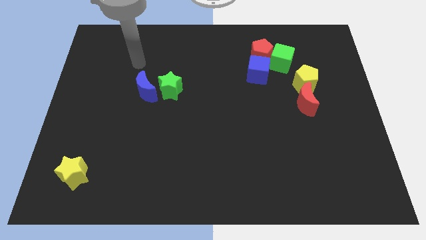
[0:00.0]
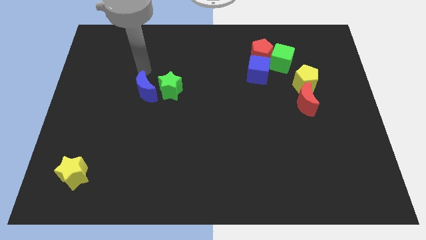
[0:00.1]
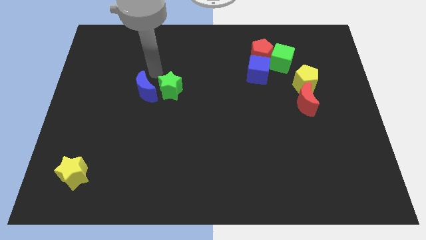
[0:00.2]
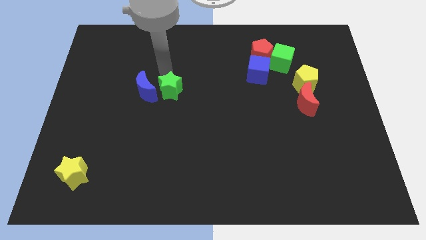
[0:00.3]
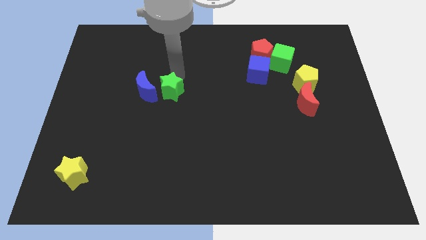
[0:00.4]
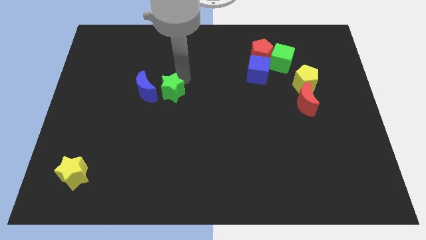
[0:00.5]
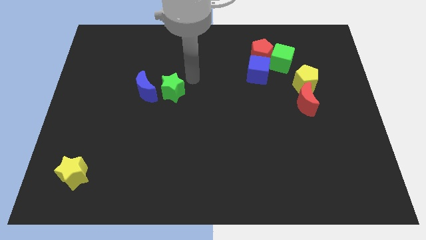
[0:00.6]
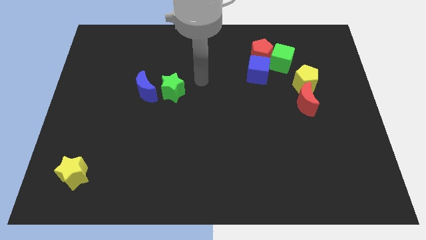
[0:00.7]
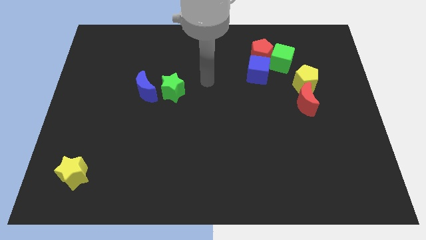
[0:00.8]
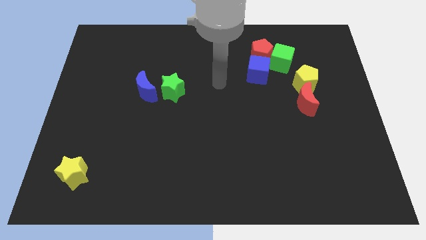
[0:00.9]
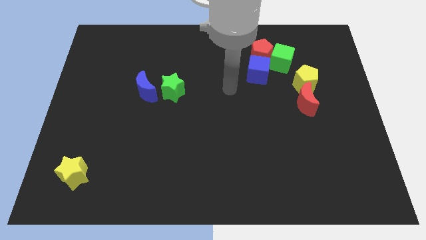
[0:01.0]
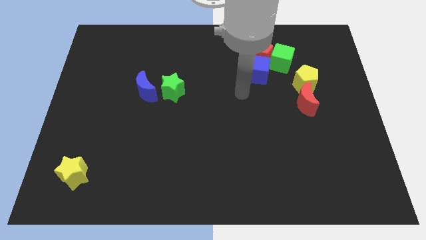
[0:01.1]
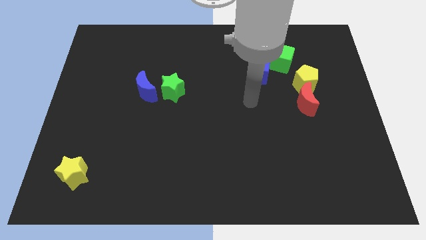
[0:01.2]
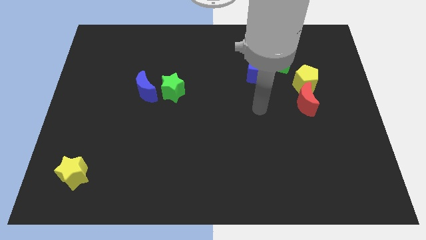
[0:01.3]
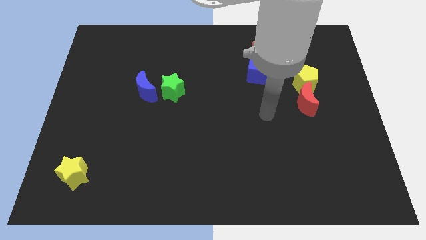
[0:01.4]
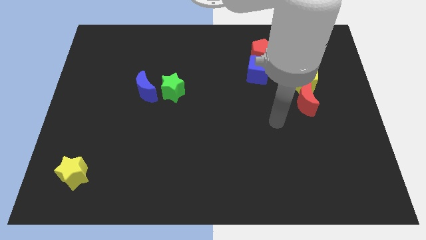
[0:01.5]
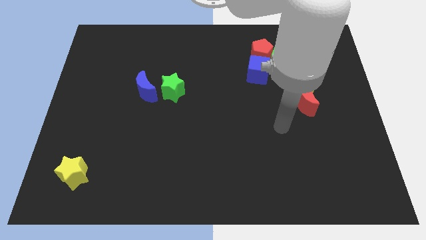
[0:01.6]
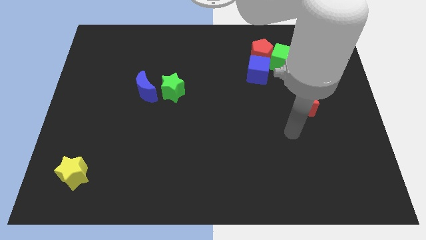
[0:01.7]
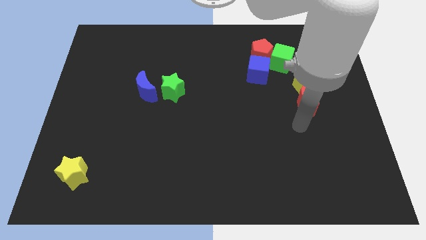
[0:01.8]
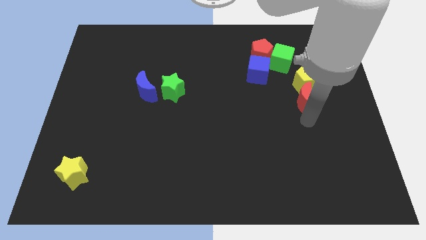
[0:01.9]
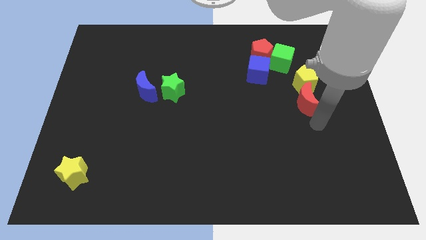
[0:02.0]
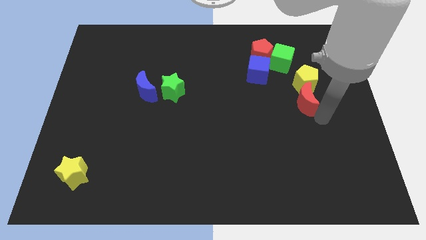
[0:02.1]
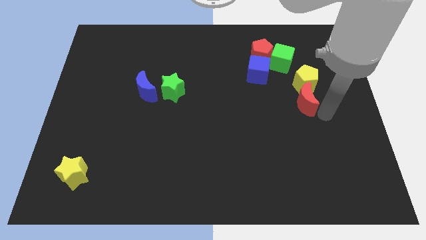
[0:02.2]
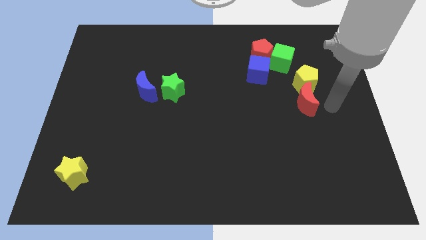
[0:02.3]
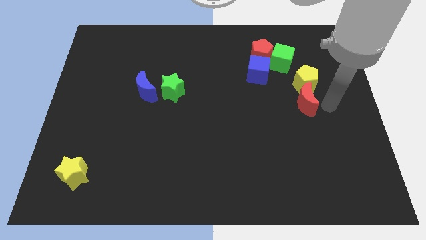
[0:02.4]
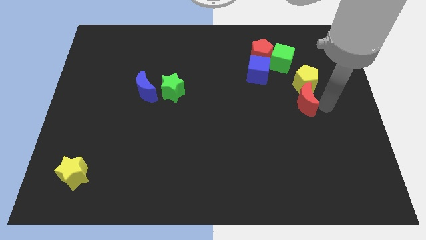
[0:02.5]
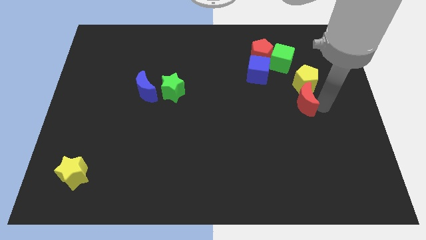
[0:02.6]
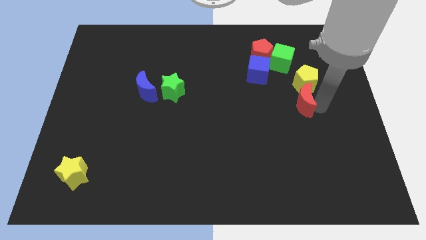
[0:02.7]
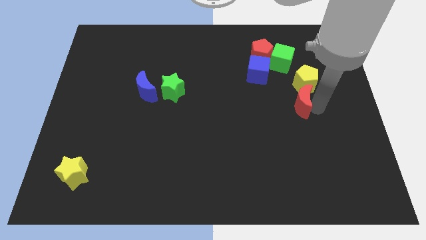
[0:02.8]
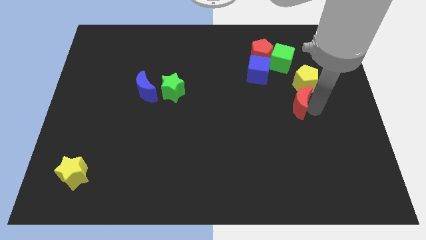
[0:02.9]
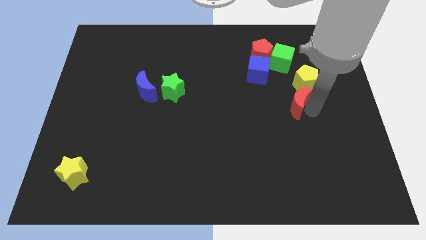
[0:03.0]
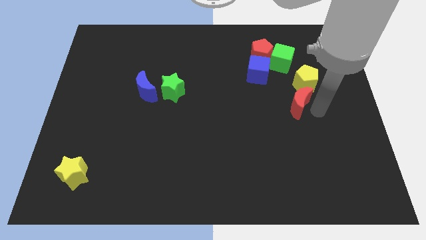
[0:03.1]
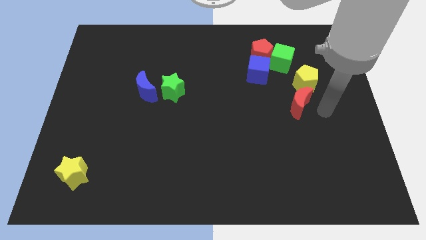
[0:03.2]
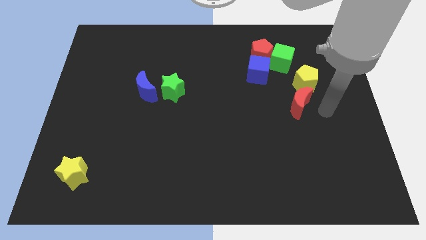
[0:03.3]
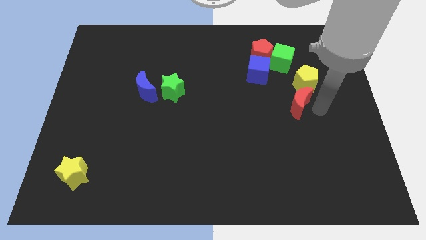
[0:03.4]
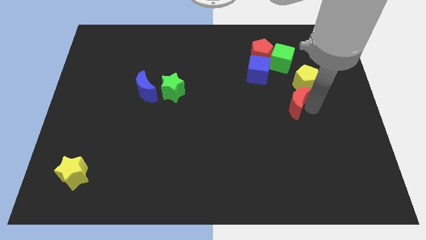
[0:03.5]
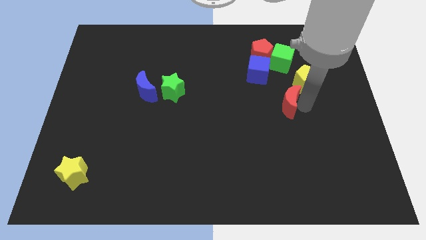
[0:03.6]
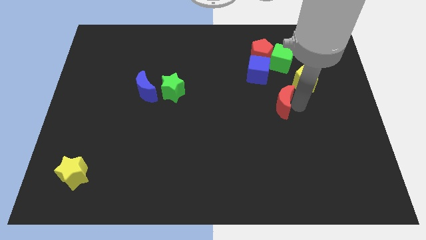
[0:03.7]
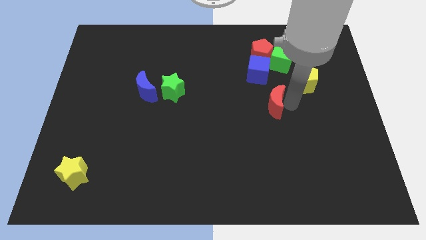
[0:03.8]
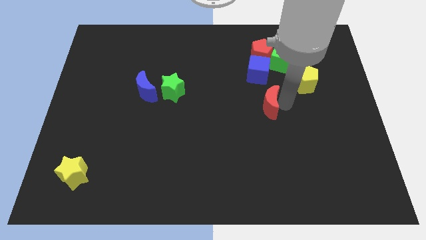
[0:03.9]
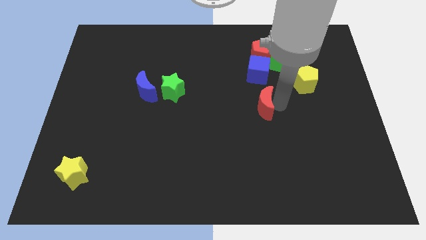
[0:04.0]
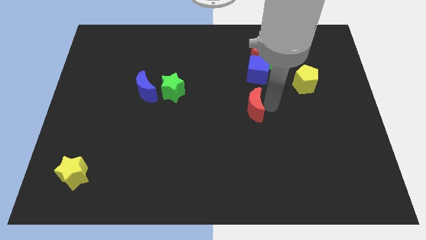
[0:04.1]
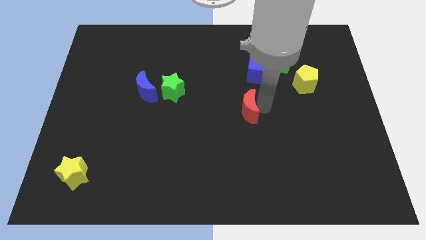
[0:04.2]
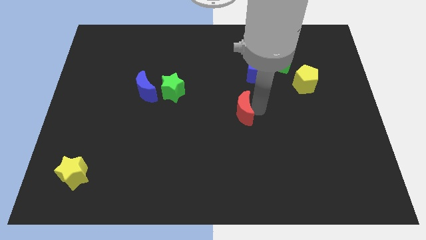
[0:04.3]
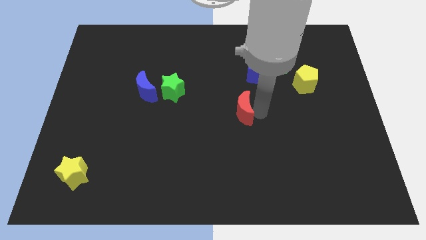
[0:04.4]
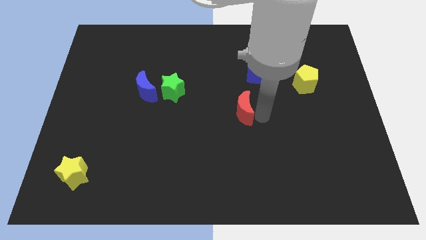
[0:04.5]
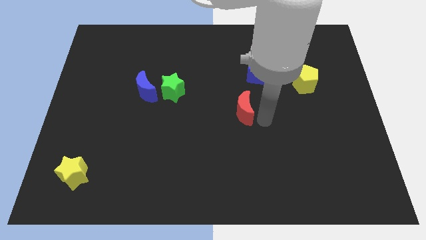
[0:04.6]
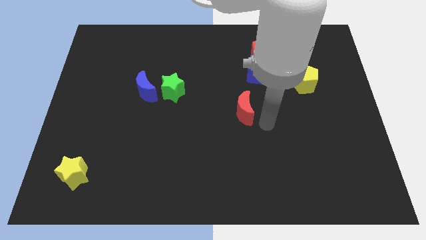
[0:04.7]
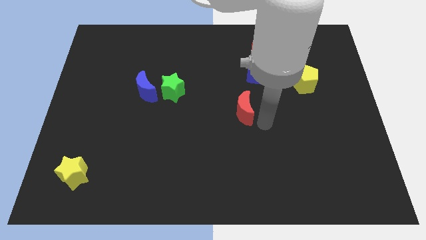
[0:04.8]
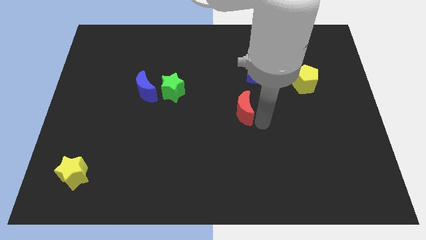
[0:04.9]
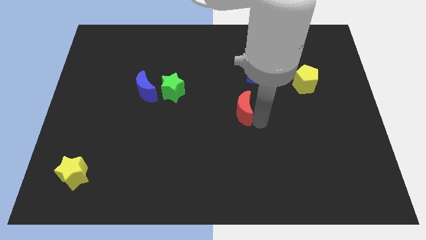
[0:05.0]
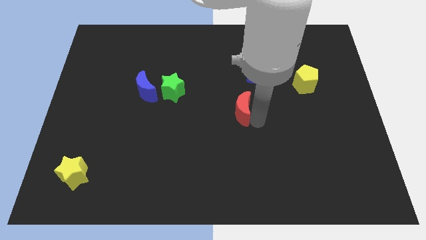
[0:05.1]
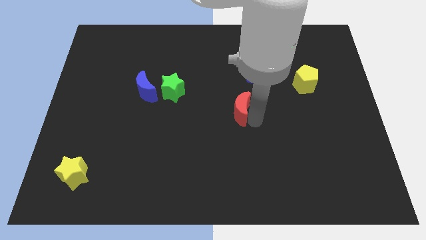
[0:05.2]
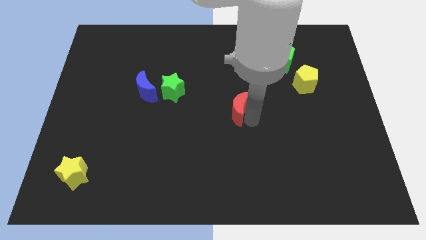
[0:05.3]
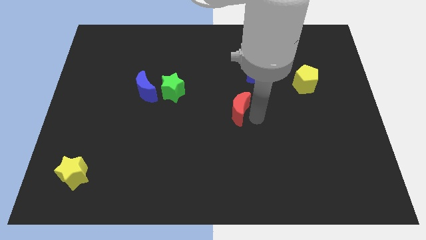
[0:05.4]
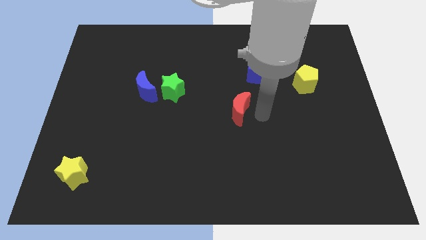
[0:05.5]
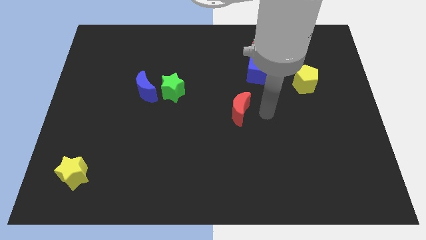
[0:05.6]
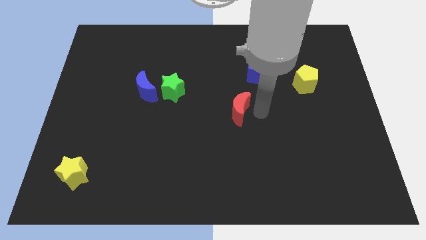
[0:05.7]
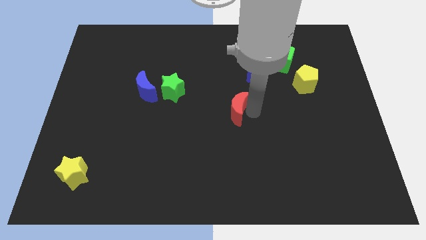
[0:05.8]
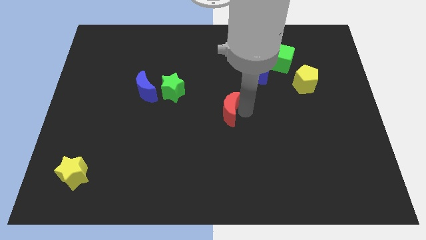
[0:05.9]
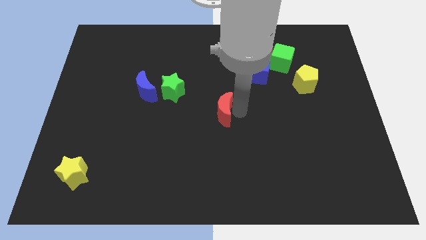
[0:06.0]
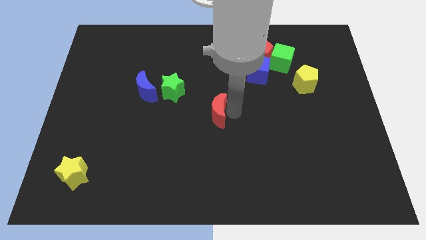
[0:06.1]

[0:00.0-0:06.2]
push the red moon left

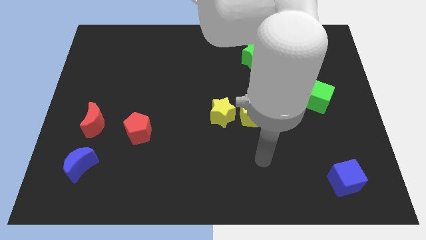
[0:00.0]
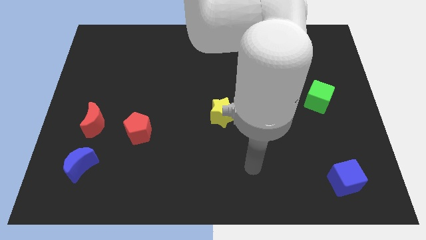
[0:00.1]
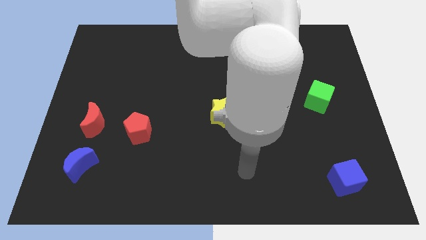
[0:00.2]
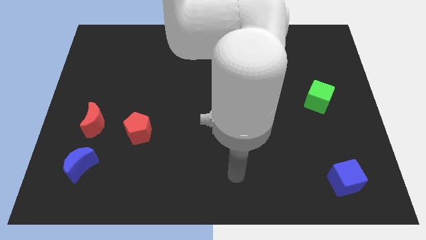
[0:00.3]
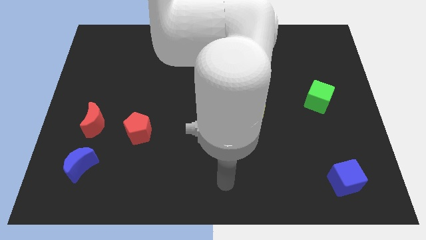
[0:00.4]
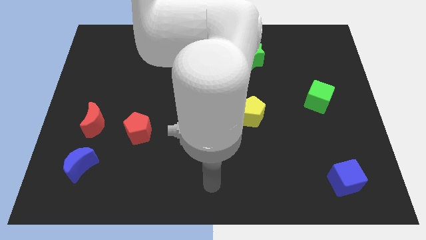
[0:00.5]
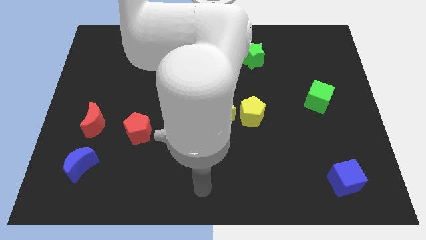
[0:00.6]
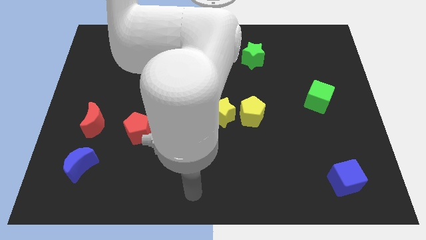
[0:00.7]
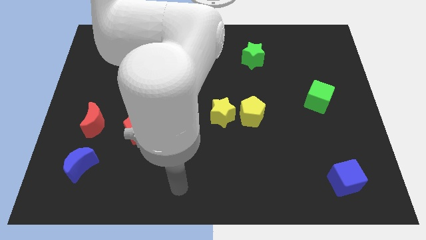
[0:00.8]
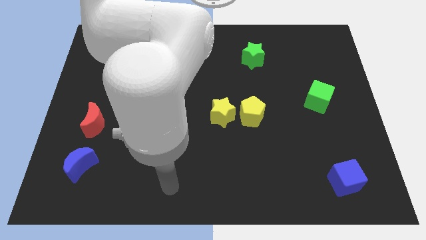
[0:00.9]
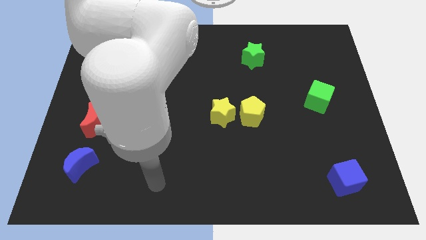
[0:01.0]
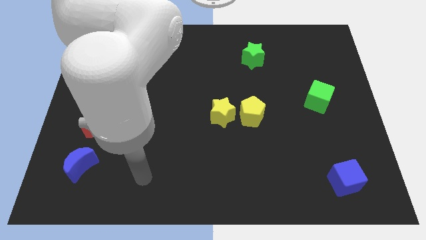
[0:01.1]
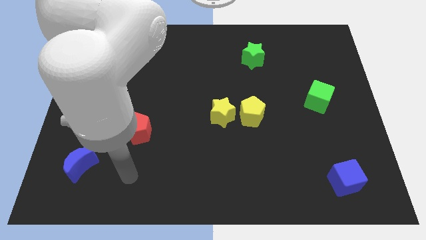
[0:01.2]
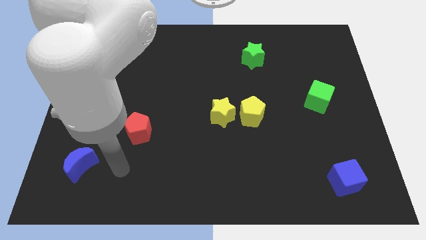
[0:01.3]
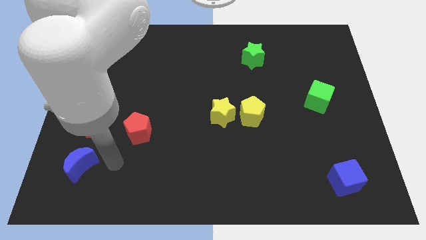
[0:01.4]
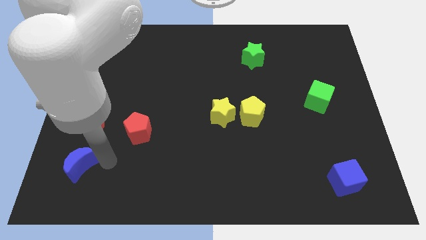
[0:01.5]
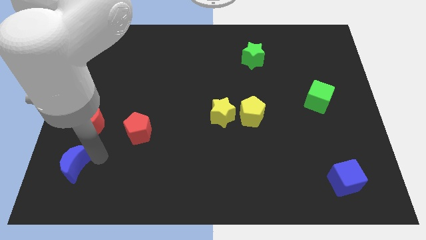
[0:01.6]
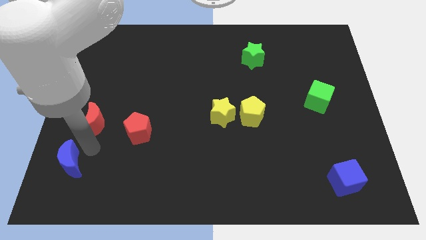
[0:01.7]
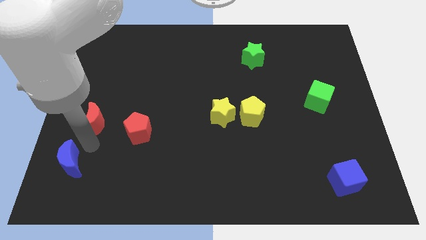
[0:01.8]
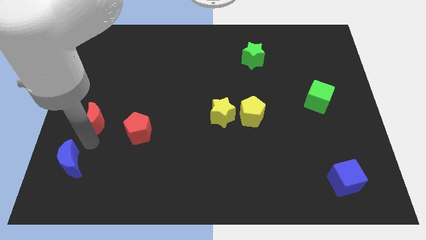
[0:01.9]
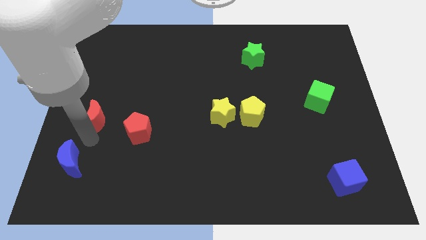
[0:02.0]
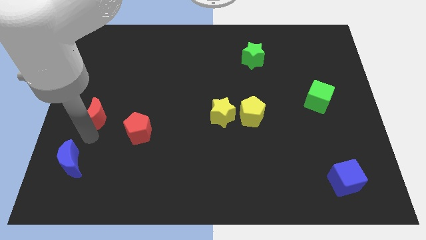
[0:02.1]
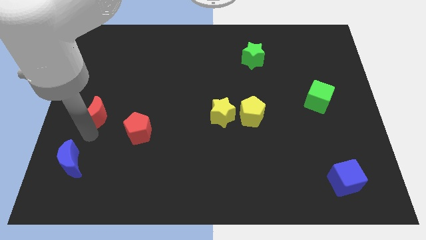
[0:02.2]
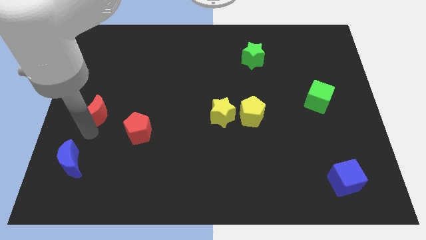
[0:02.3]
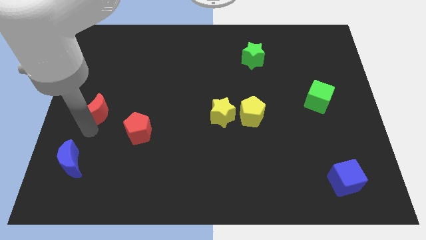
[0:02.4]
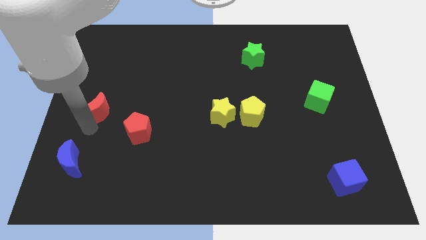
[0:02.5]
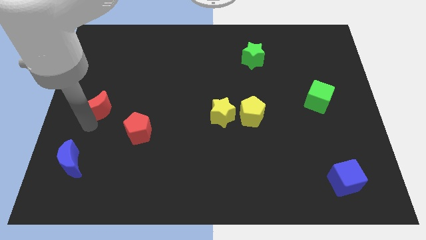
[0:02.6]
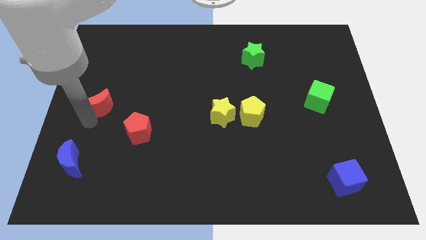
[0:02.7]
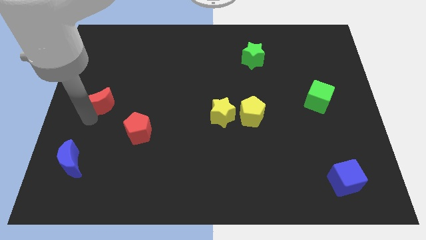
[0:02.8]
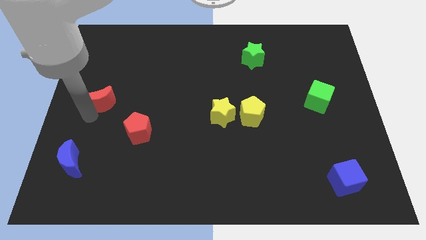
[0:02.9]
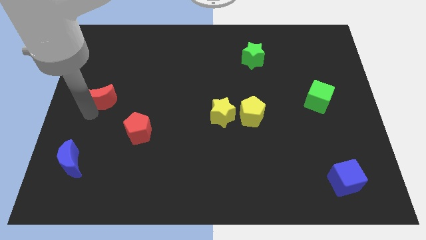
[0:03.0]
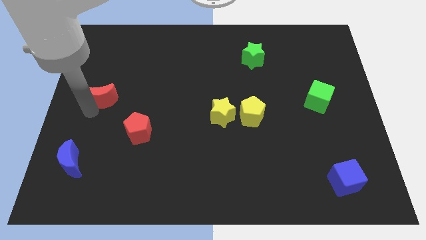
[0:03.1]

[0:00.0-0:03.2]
slide the red moon somewhat upwards
